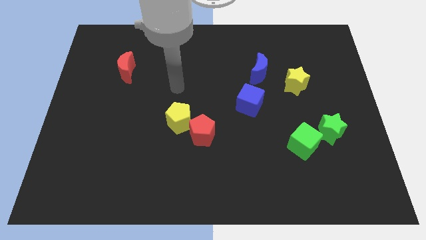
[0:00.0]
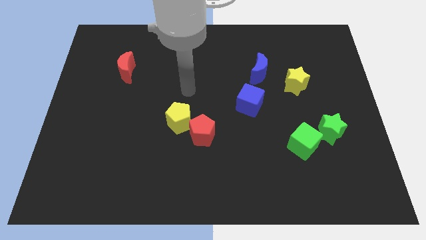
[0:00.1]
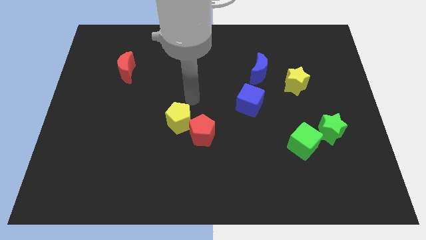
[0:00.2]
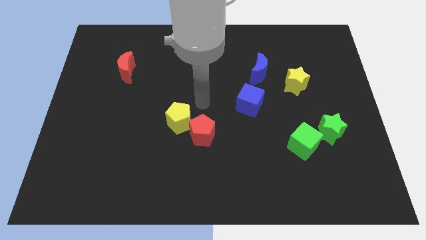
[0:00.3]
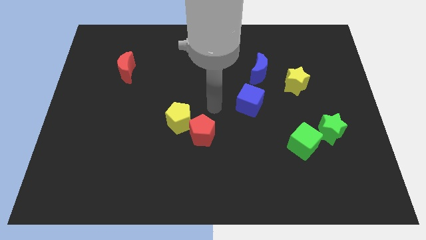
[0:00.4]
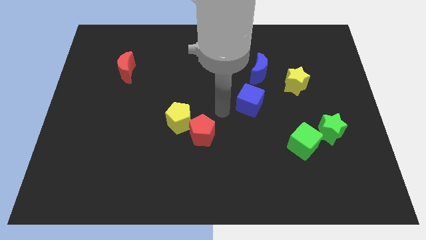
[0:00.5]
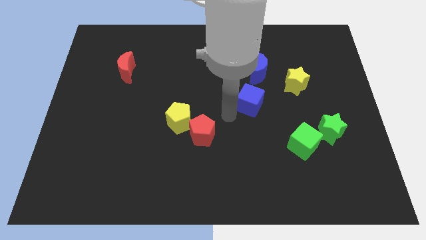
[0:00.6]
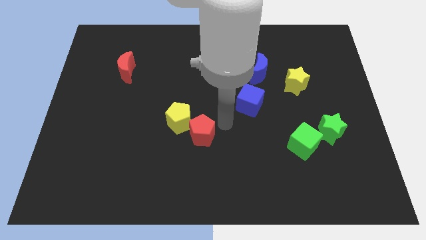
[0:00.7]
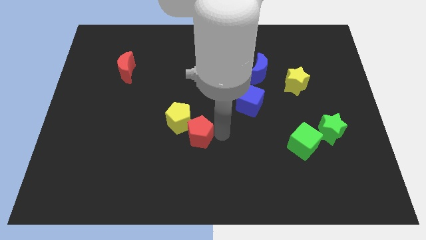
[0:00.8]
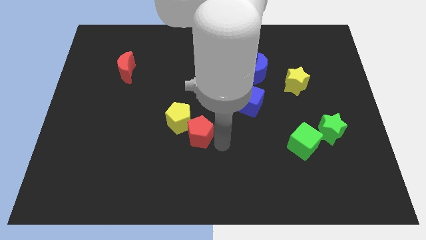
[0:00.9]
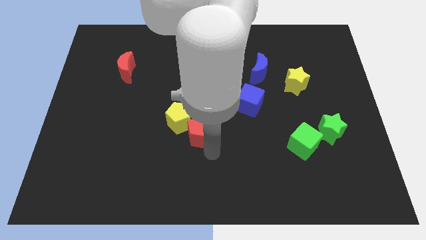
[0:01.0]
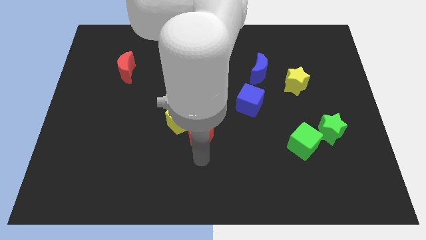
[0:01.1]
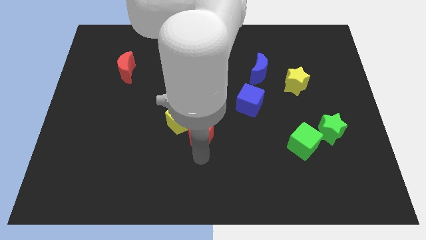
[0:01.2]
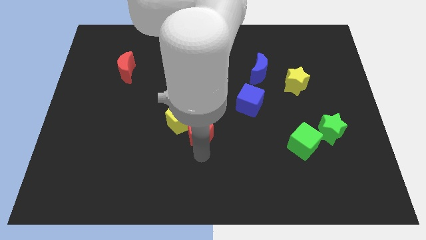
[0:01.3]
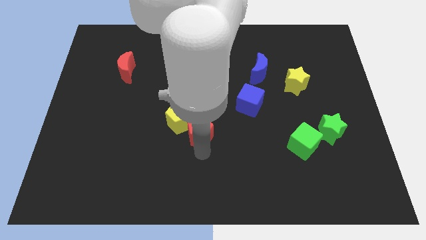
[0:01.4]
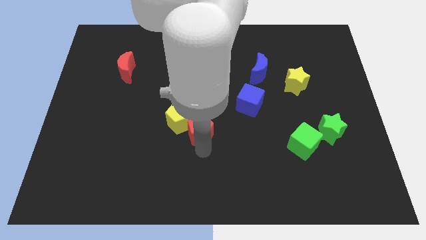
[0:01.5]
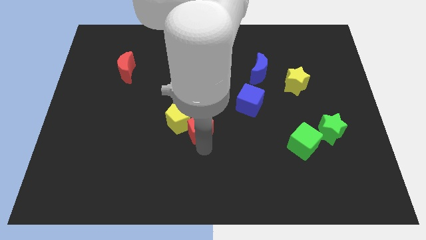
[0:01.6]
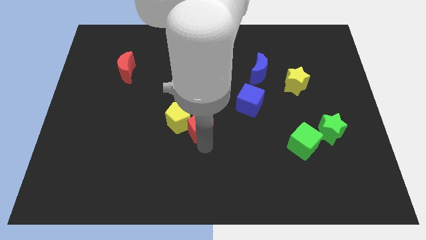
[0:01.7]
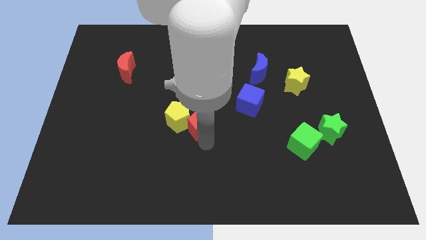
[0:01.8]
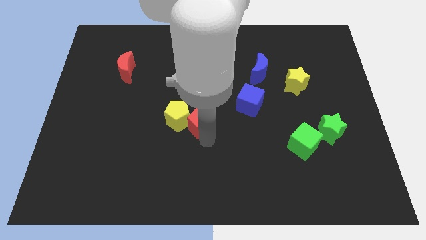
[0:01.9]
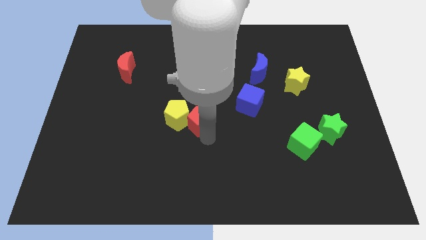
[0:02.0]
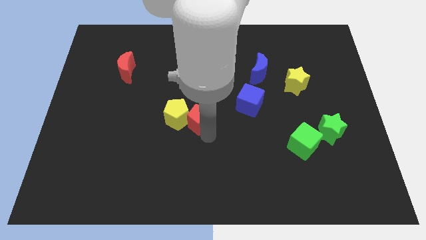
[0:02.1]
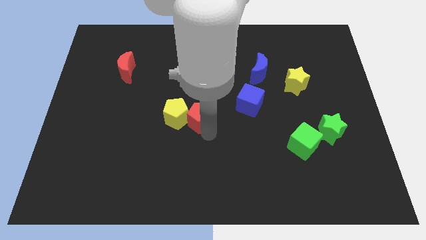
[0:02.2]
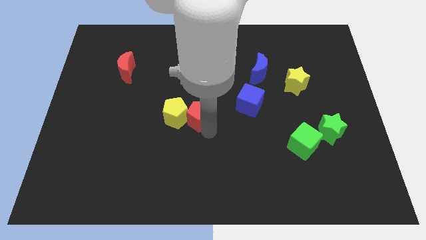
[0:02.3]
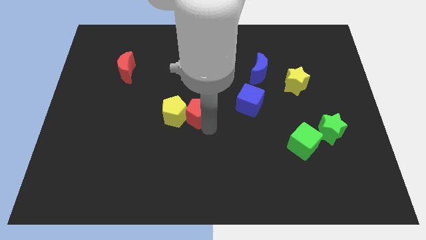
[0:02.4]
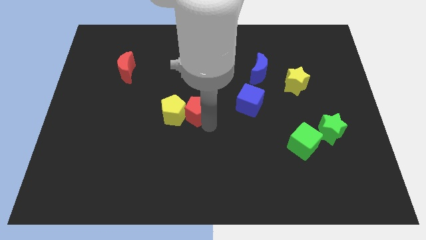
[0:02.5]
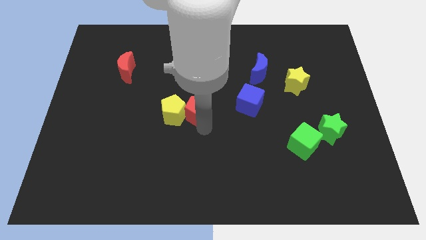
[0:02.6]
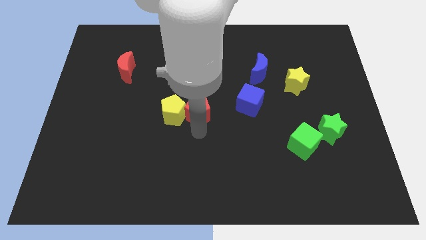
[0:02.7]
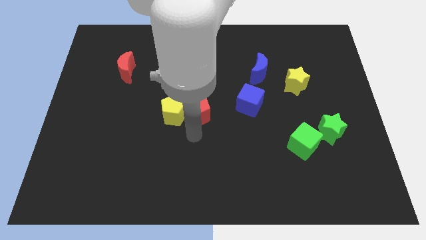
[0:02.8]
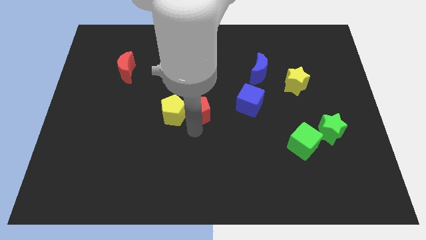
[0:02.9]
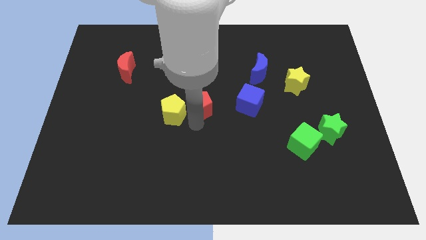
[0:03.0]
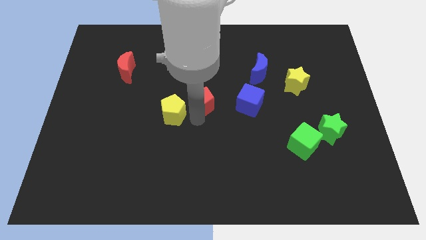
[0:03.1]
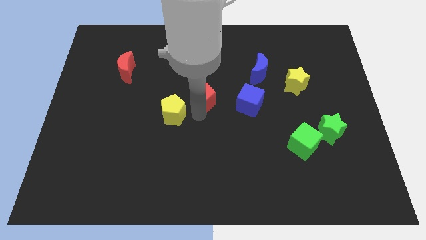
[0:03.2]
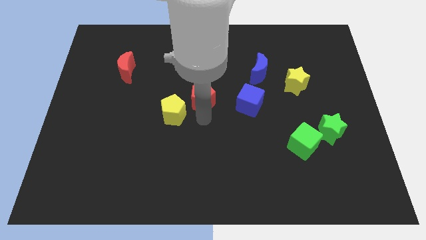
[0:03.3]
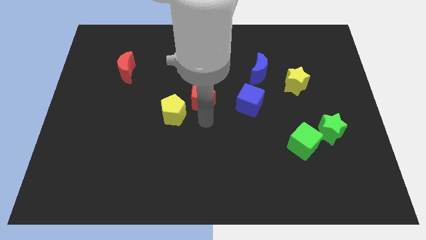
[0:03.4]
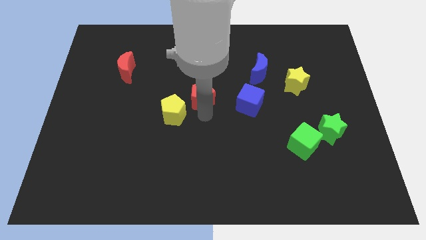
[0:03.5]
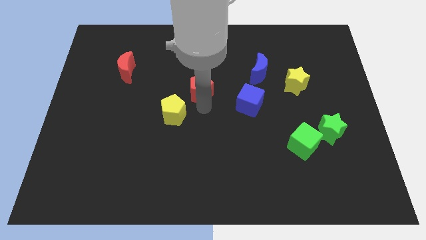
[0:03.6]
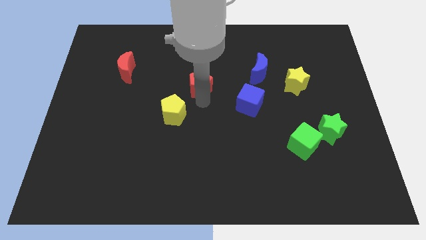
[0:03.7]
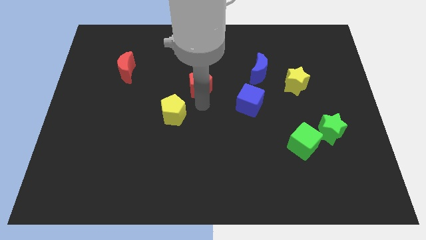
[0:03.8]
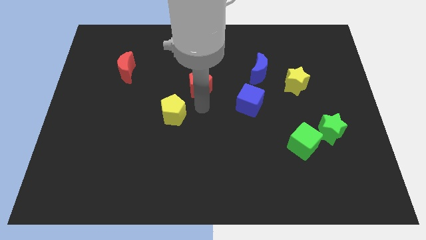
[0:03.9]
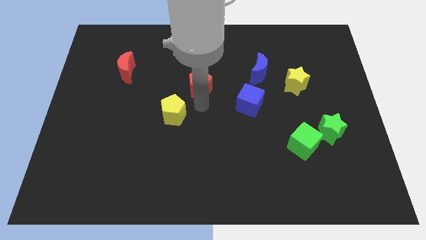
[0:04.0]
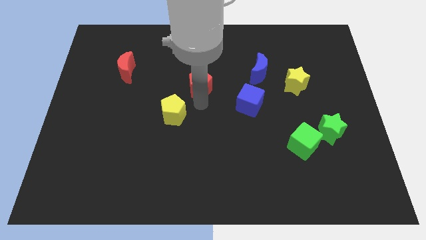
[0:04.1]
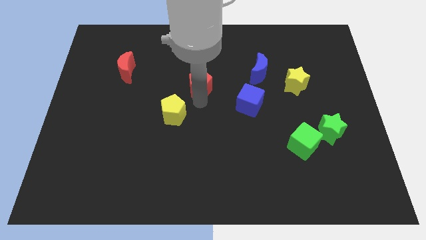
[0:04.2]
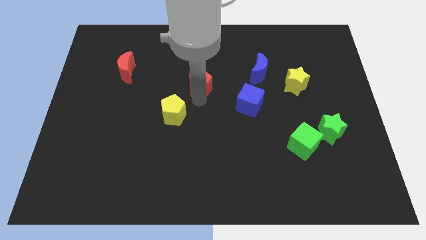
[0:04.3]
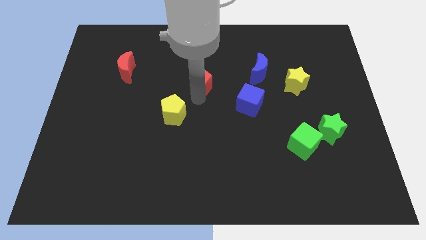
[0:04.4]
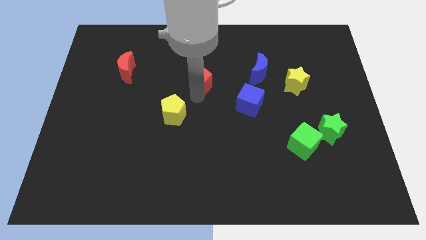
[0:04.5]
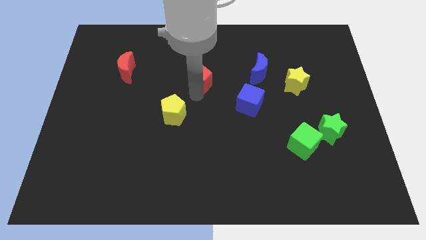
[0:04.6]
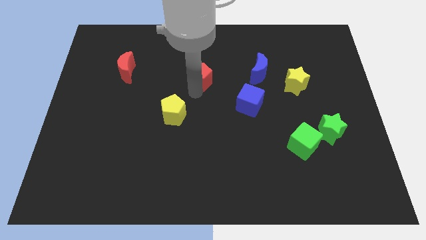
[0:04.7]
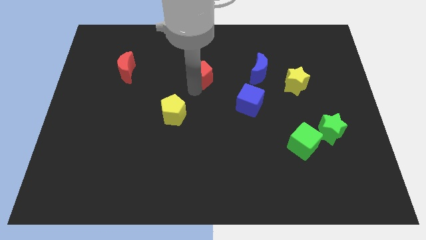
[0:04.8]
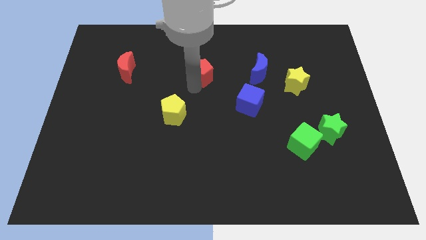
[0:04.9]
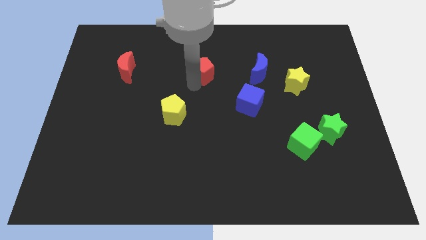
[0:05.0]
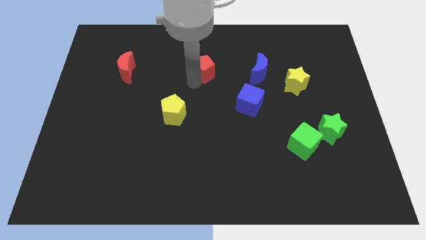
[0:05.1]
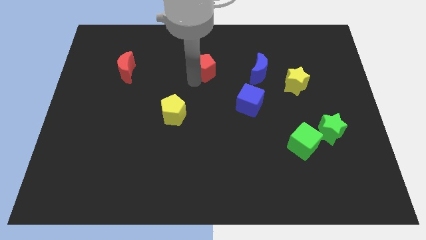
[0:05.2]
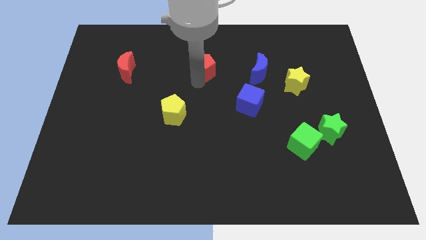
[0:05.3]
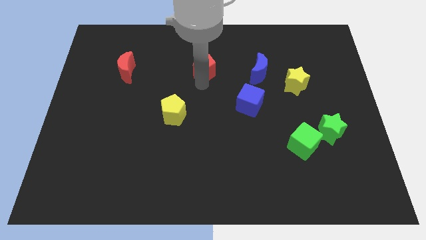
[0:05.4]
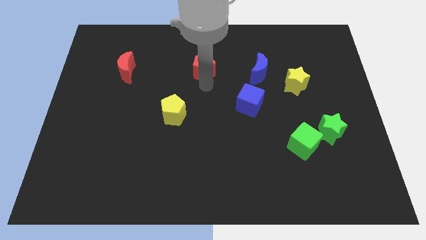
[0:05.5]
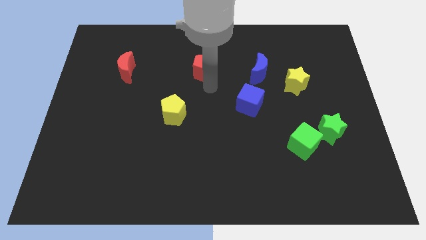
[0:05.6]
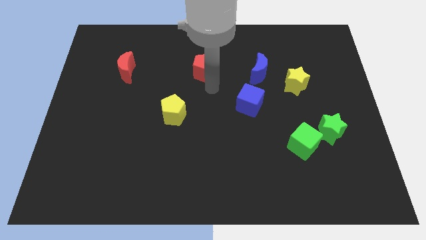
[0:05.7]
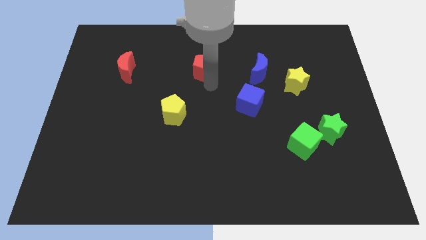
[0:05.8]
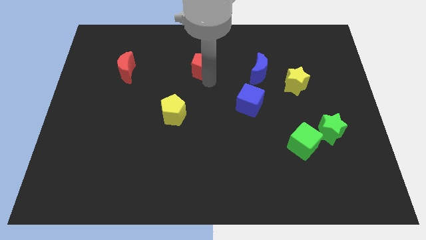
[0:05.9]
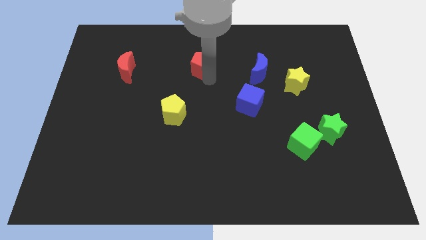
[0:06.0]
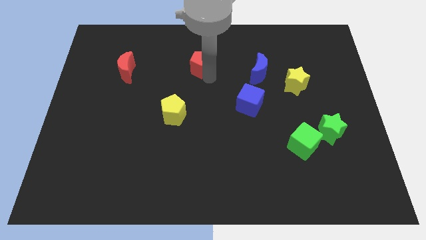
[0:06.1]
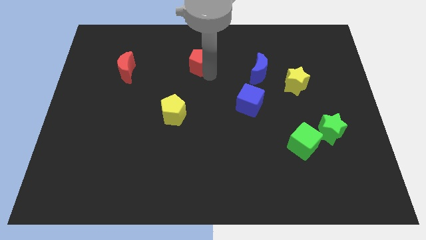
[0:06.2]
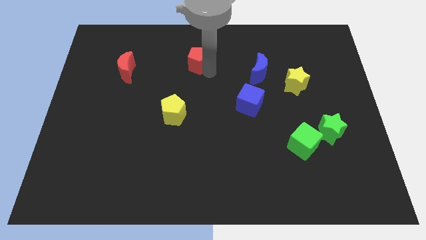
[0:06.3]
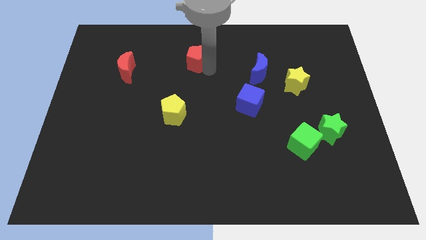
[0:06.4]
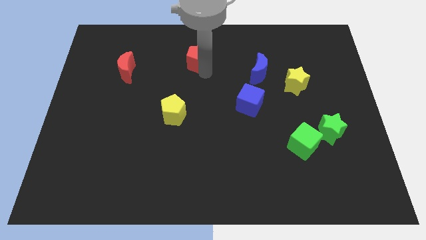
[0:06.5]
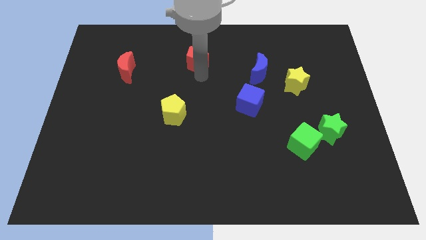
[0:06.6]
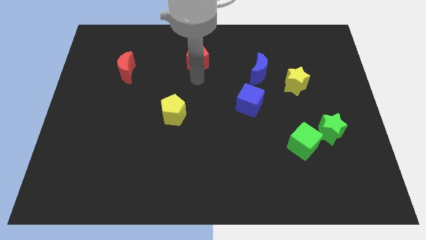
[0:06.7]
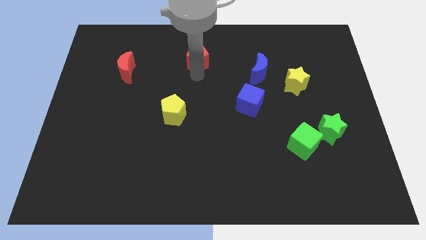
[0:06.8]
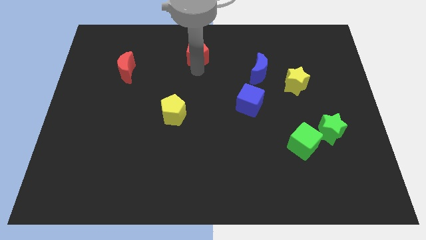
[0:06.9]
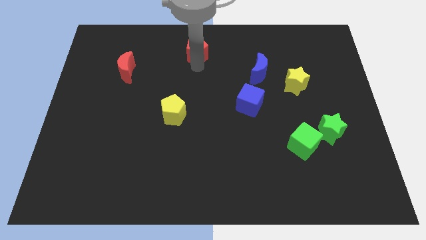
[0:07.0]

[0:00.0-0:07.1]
slide the red pentagon to the top side
